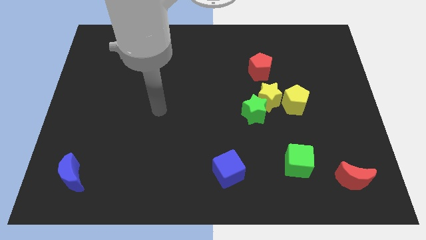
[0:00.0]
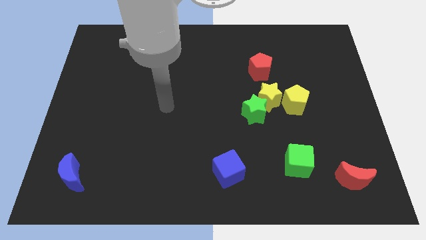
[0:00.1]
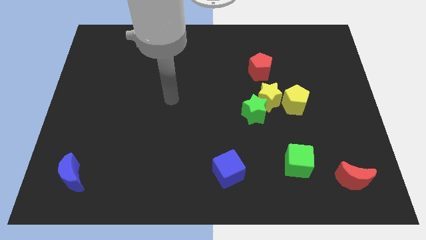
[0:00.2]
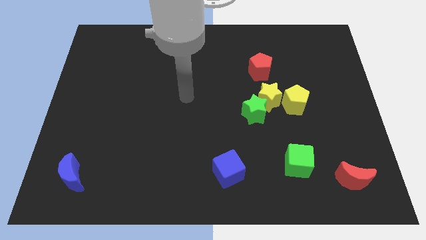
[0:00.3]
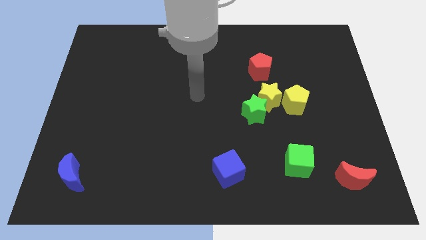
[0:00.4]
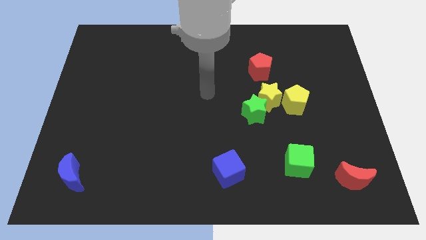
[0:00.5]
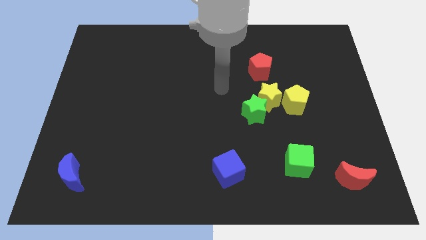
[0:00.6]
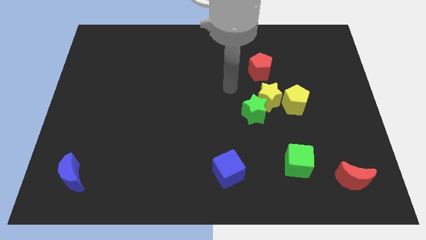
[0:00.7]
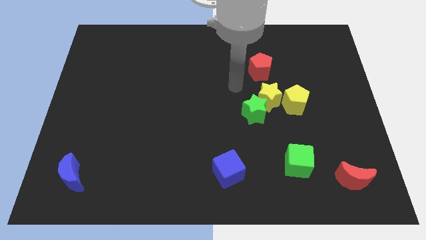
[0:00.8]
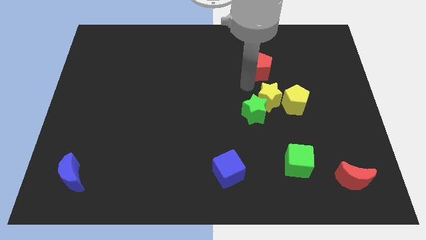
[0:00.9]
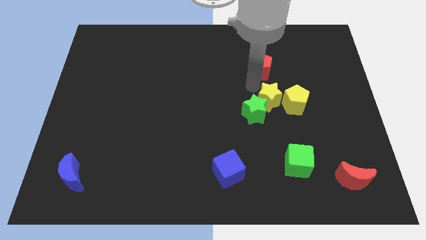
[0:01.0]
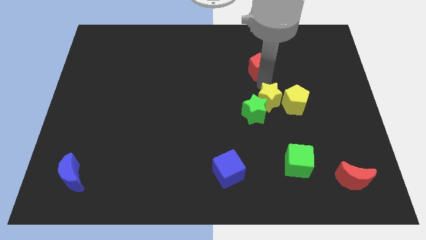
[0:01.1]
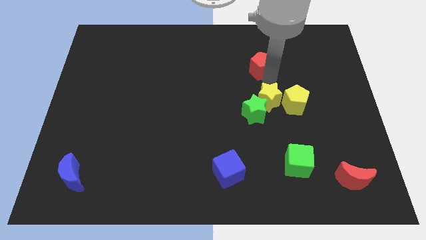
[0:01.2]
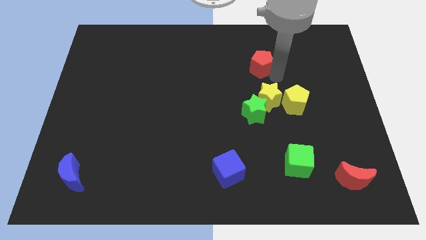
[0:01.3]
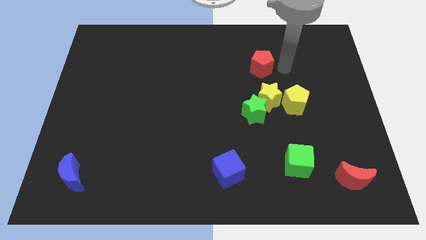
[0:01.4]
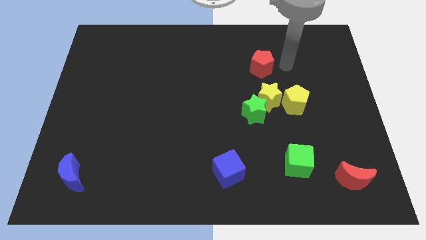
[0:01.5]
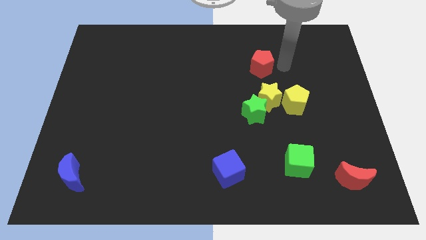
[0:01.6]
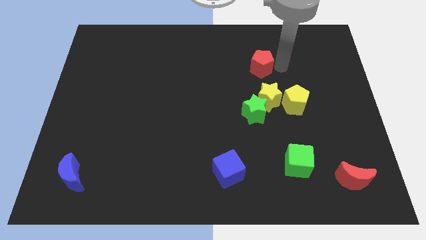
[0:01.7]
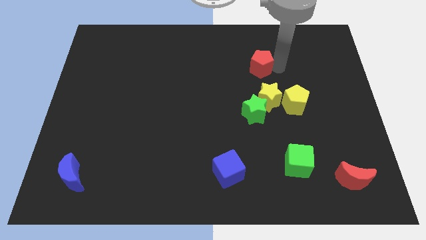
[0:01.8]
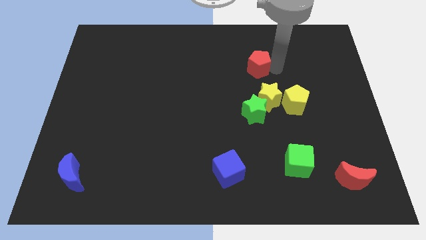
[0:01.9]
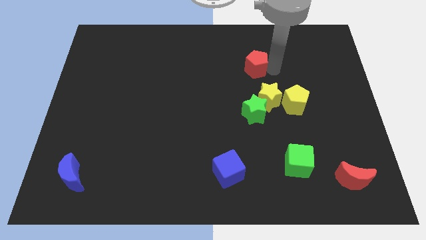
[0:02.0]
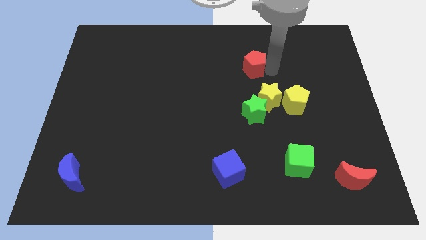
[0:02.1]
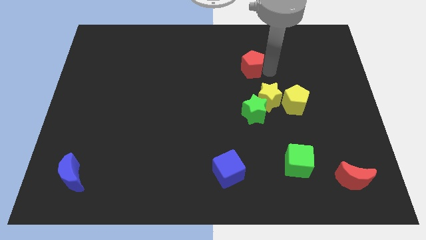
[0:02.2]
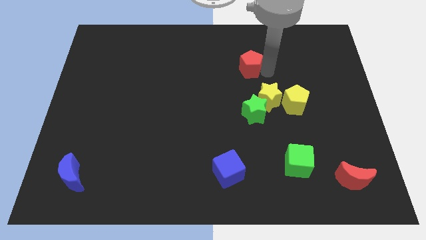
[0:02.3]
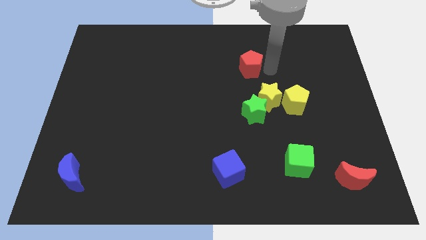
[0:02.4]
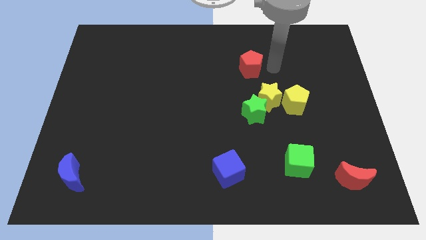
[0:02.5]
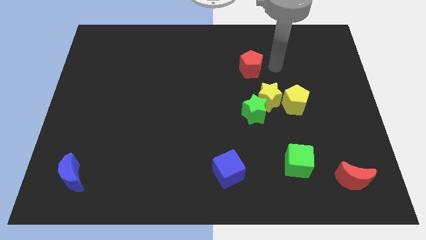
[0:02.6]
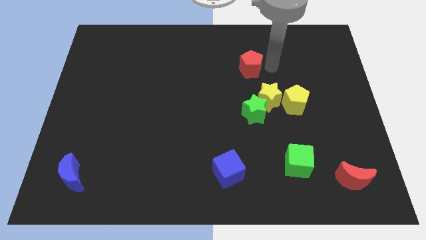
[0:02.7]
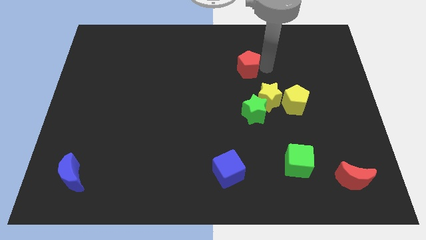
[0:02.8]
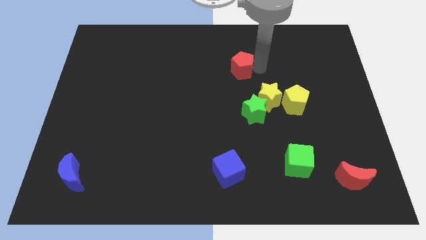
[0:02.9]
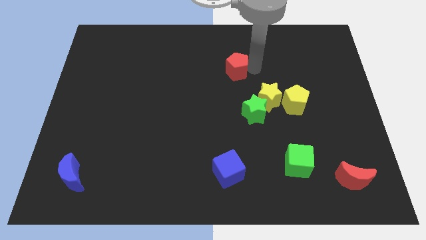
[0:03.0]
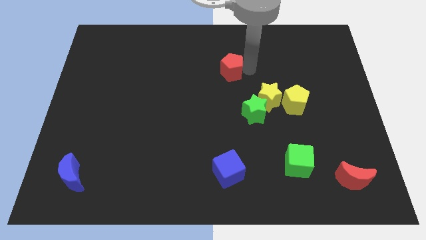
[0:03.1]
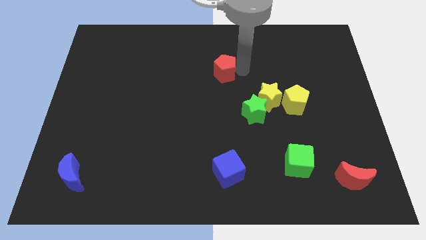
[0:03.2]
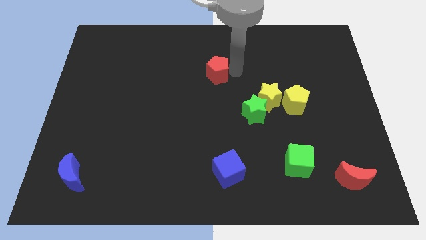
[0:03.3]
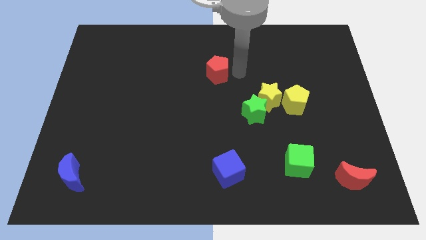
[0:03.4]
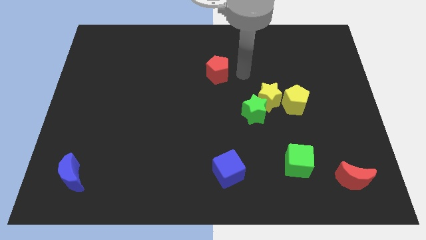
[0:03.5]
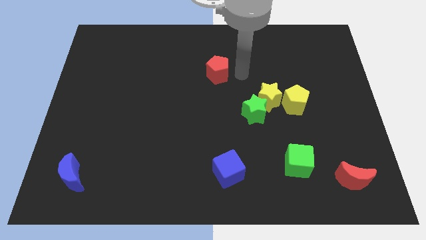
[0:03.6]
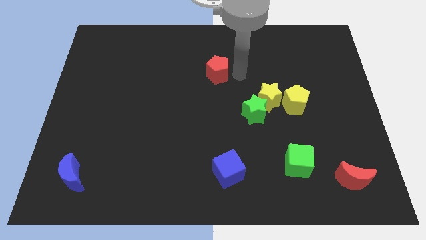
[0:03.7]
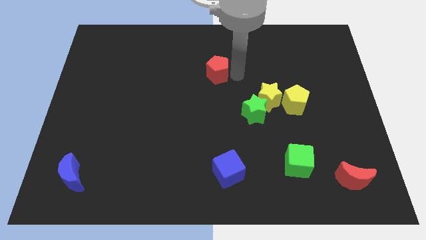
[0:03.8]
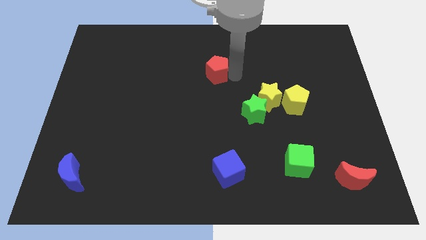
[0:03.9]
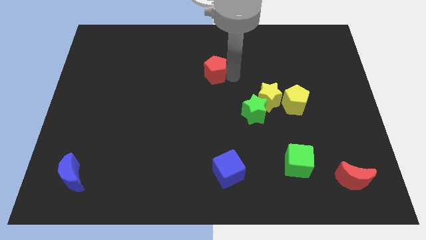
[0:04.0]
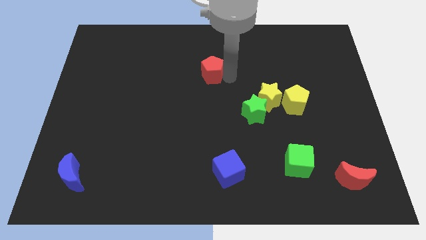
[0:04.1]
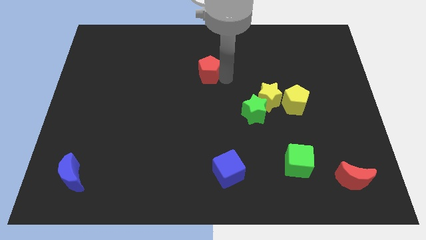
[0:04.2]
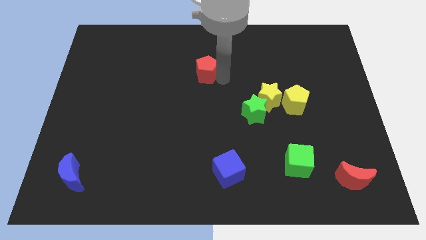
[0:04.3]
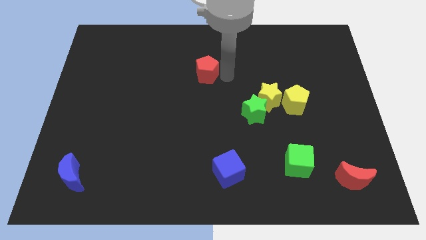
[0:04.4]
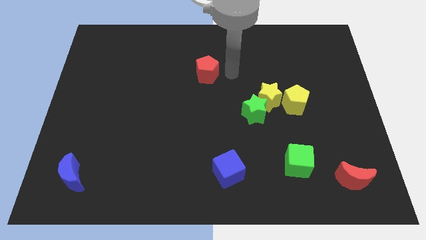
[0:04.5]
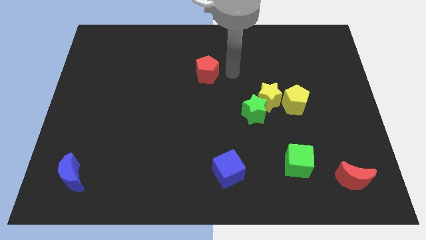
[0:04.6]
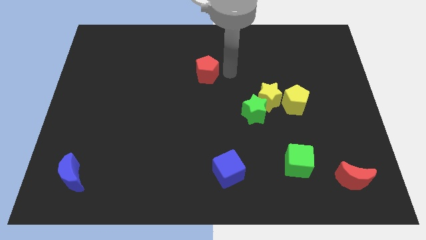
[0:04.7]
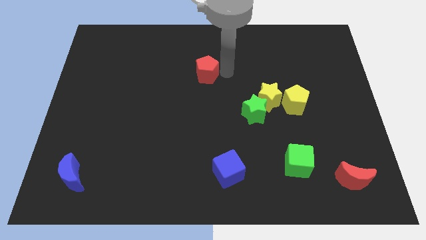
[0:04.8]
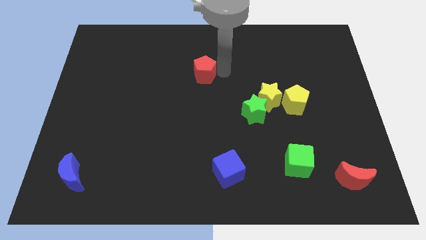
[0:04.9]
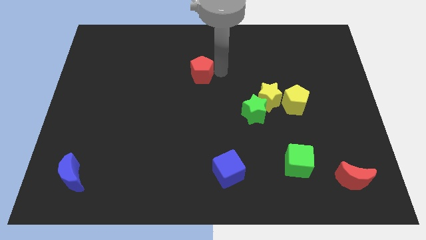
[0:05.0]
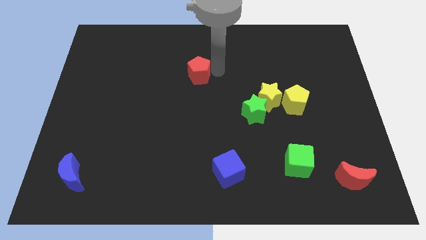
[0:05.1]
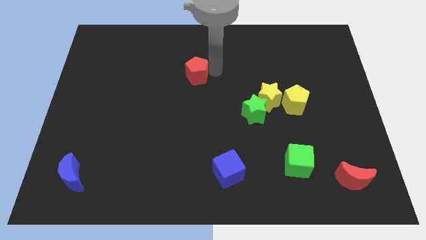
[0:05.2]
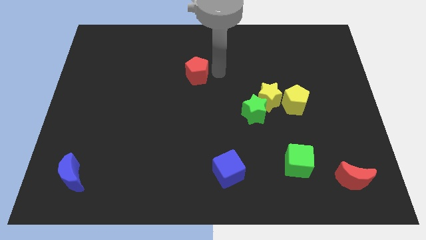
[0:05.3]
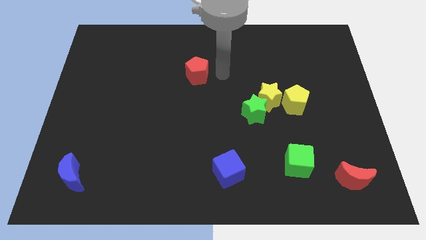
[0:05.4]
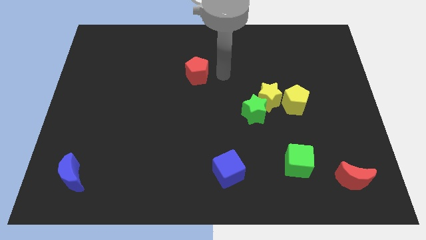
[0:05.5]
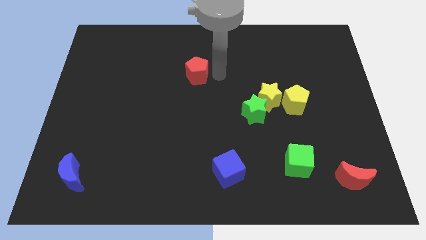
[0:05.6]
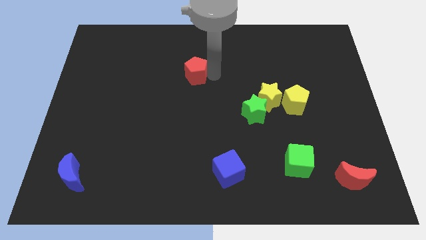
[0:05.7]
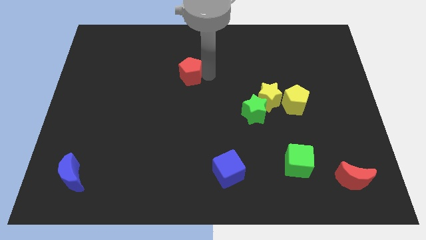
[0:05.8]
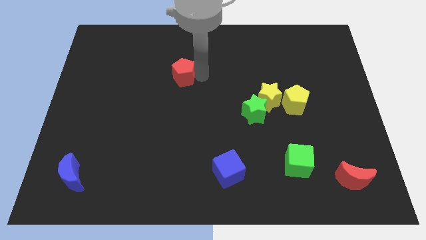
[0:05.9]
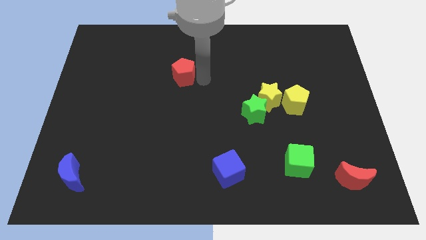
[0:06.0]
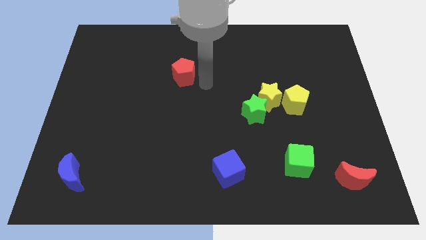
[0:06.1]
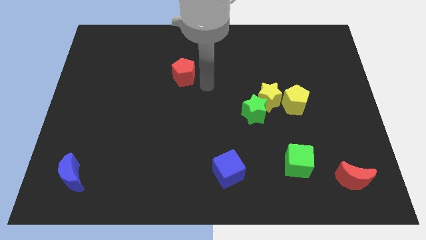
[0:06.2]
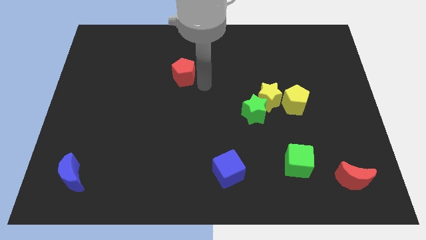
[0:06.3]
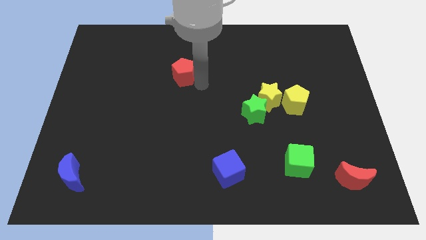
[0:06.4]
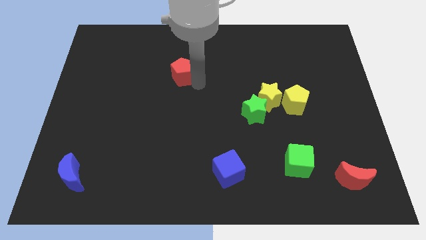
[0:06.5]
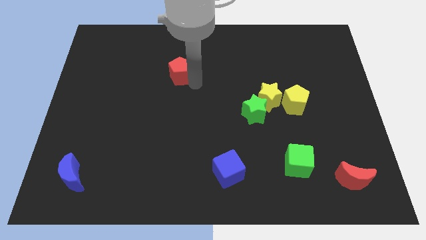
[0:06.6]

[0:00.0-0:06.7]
push the red pentagon left

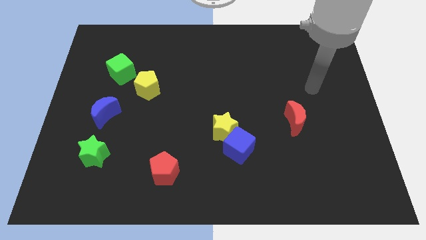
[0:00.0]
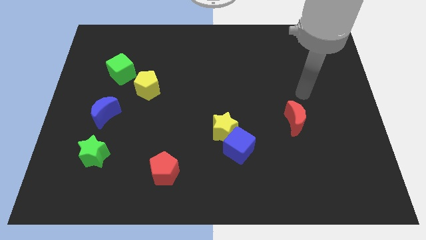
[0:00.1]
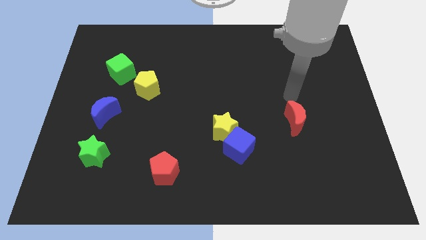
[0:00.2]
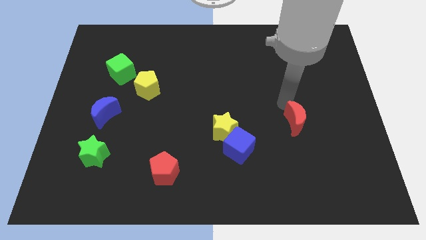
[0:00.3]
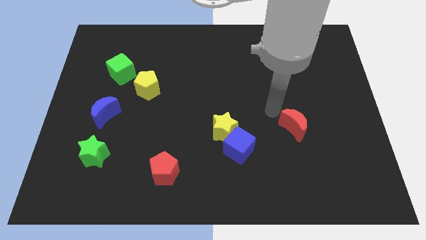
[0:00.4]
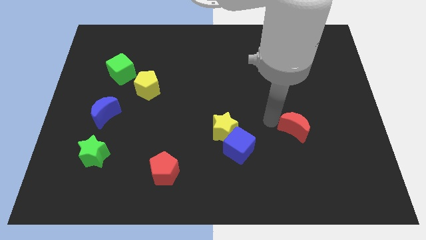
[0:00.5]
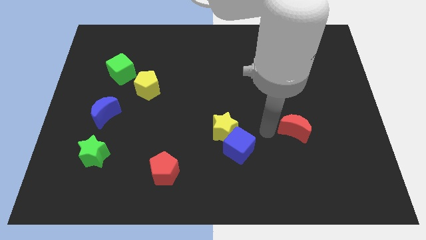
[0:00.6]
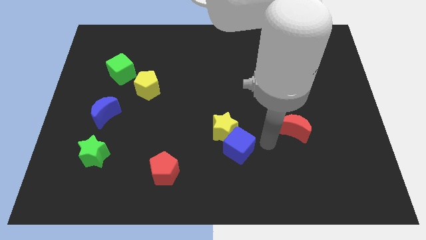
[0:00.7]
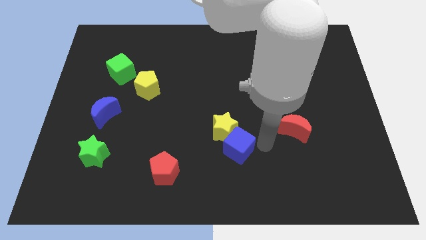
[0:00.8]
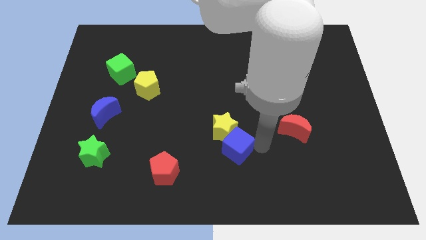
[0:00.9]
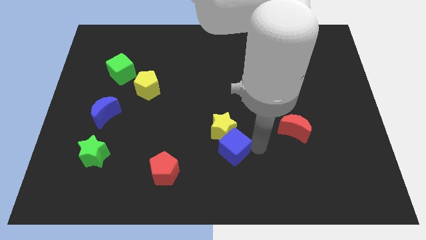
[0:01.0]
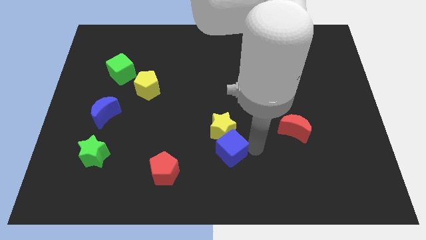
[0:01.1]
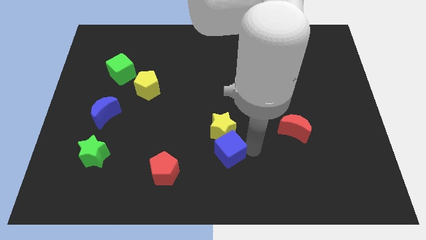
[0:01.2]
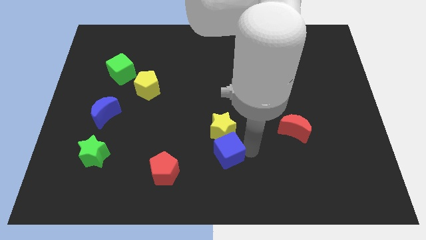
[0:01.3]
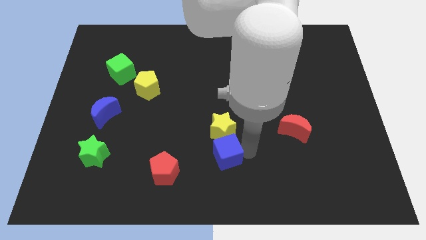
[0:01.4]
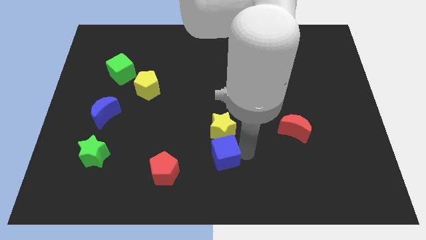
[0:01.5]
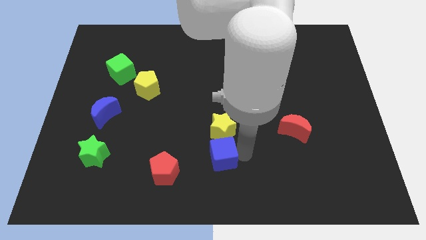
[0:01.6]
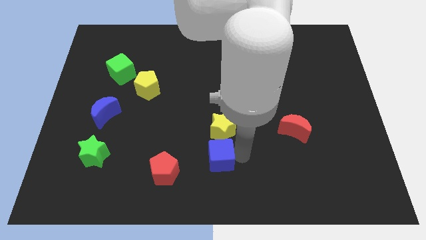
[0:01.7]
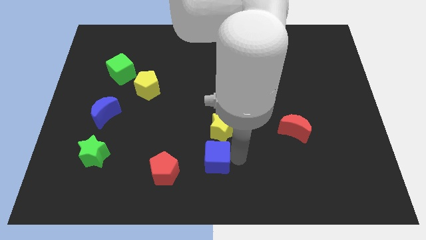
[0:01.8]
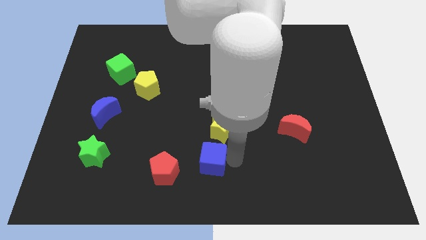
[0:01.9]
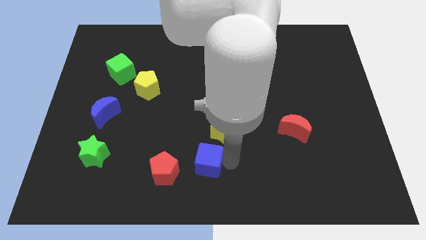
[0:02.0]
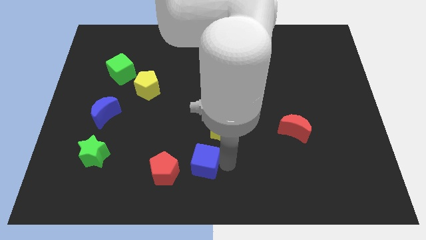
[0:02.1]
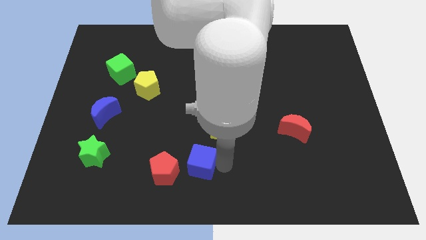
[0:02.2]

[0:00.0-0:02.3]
slightly slide the blue cube left
